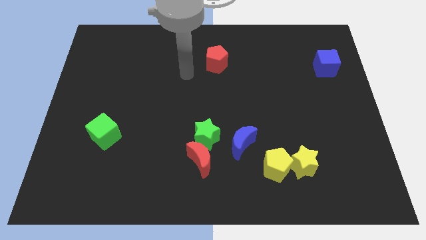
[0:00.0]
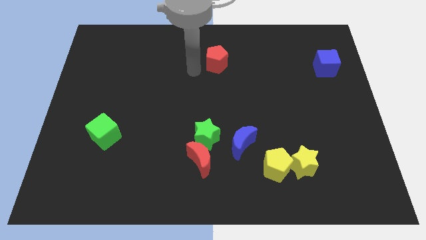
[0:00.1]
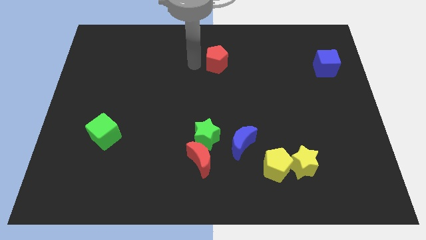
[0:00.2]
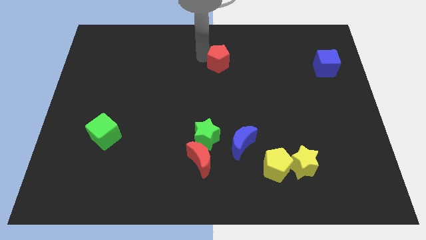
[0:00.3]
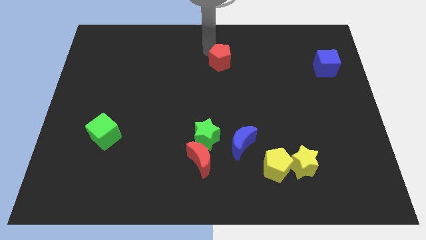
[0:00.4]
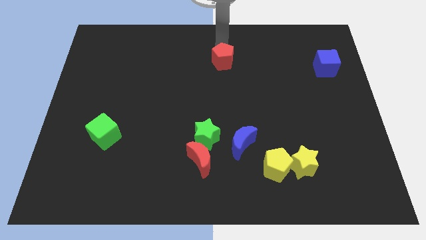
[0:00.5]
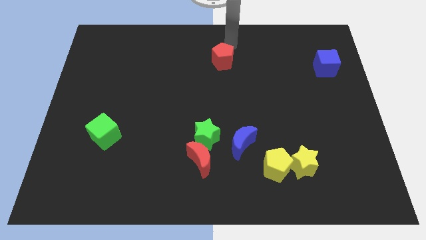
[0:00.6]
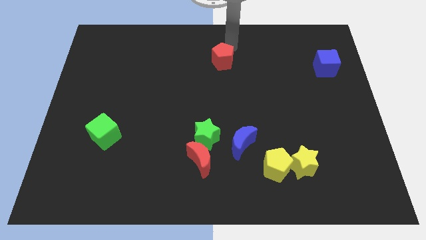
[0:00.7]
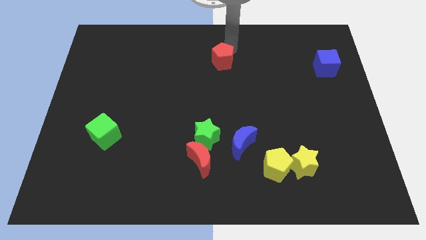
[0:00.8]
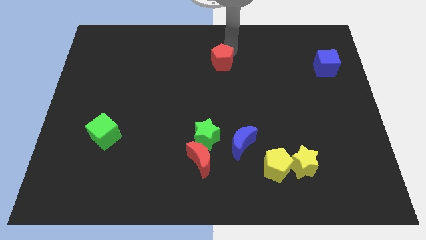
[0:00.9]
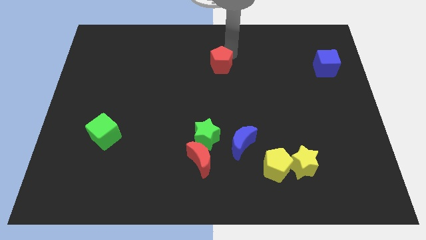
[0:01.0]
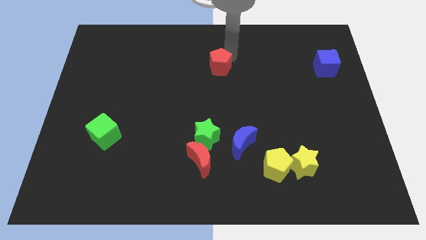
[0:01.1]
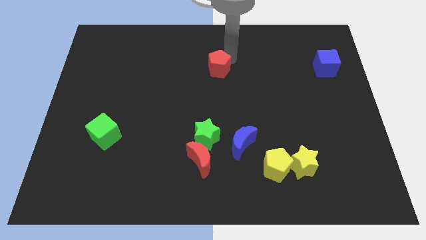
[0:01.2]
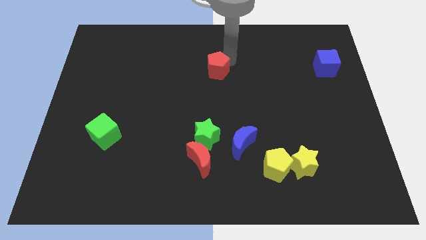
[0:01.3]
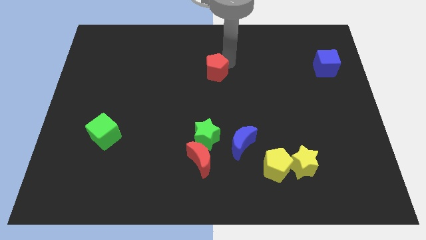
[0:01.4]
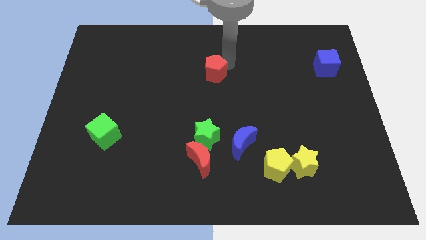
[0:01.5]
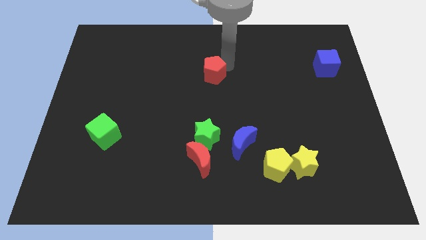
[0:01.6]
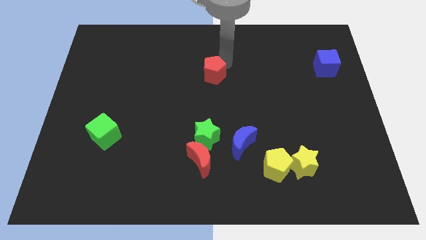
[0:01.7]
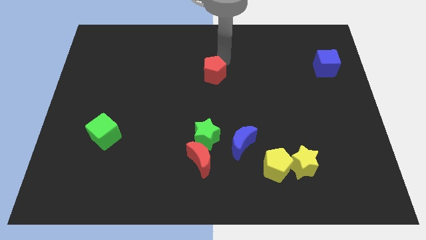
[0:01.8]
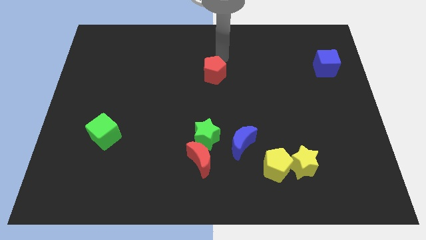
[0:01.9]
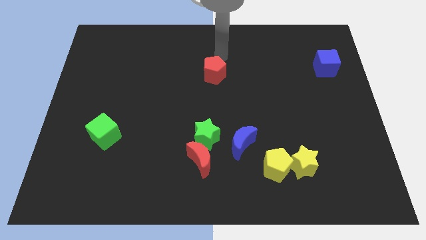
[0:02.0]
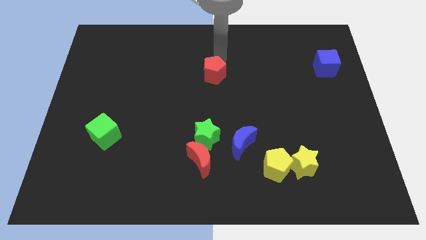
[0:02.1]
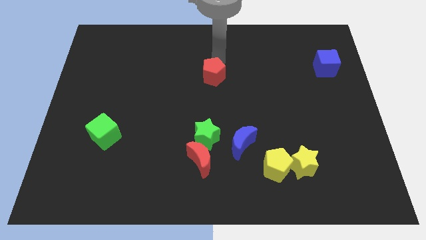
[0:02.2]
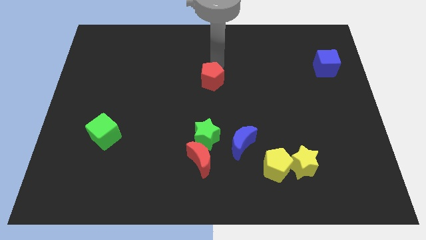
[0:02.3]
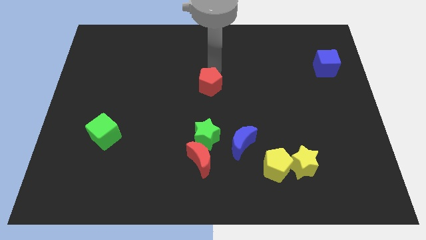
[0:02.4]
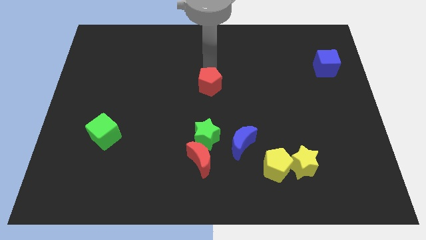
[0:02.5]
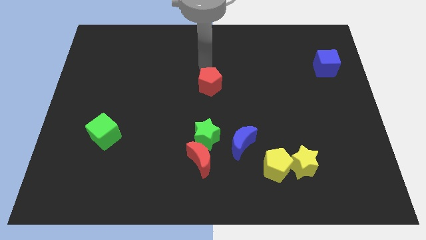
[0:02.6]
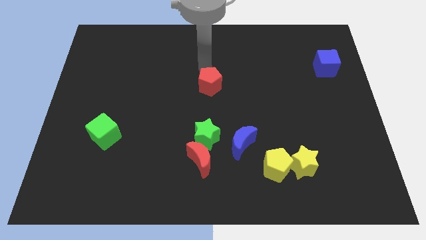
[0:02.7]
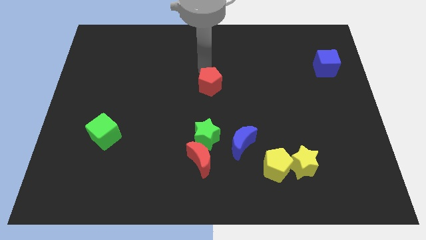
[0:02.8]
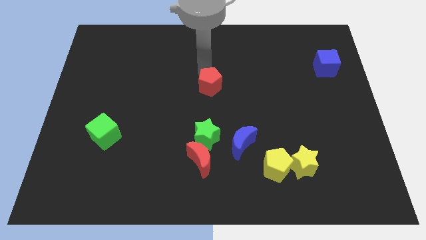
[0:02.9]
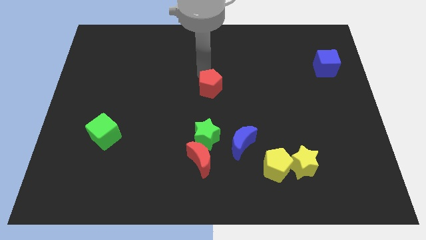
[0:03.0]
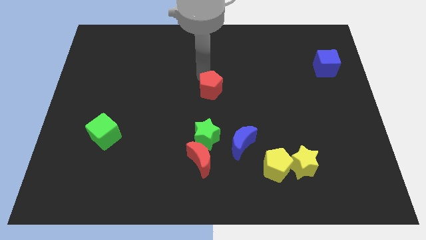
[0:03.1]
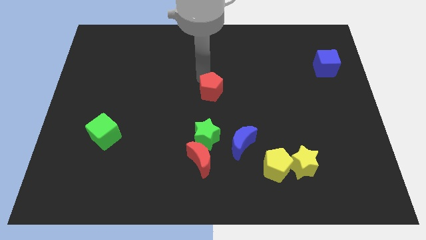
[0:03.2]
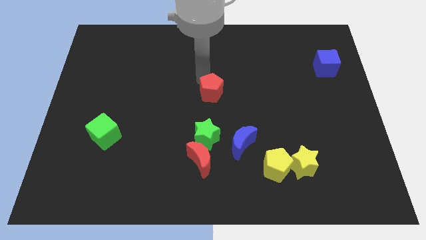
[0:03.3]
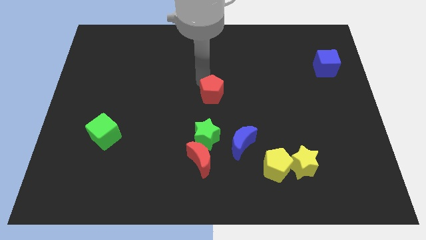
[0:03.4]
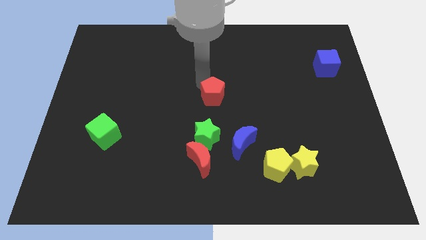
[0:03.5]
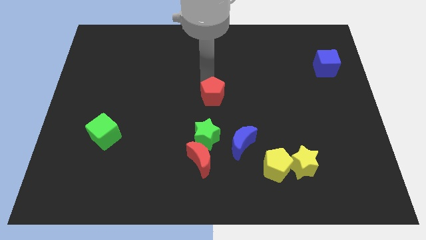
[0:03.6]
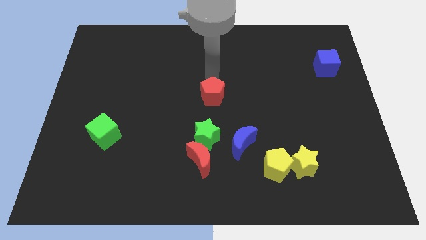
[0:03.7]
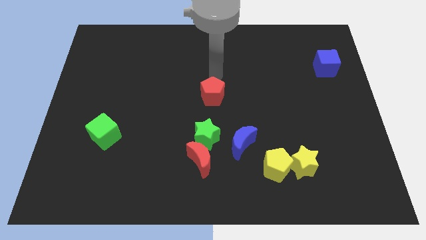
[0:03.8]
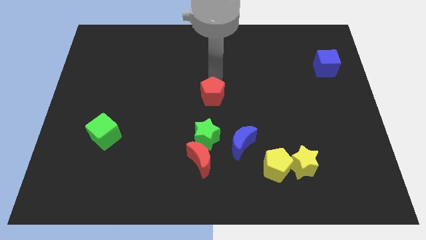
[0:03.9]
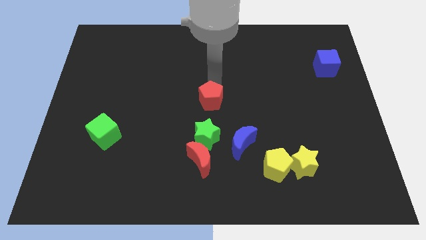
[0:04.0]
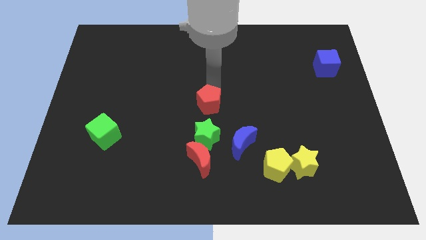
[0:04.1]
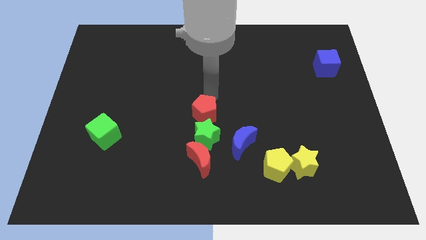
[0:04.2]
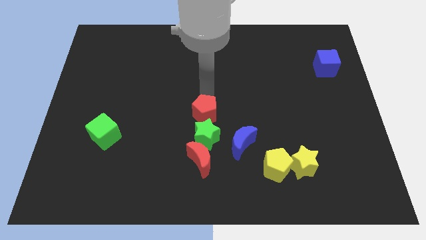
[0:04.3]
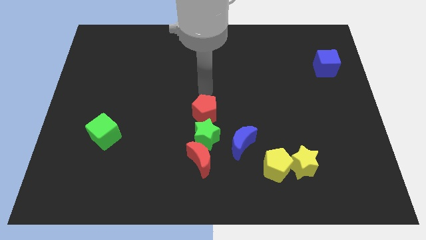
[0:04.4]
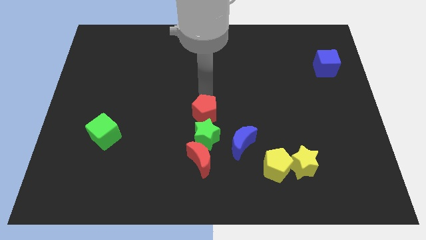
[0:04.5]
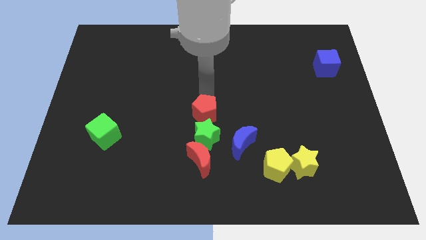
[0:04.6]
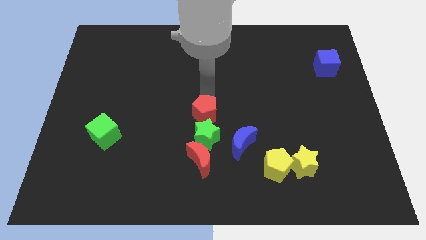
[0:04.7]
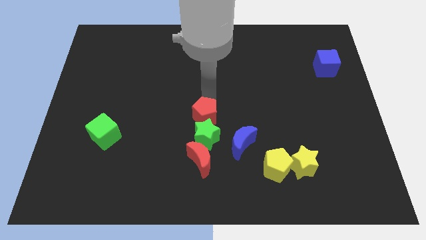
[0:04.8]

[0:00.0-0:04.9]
slide the red pentagon close to the green star

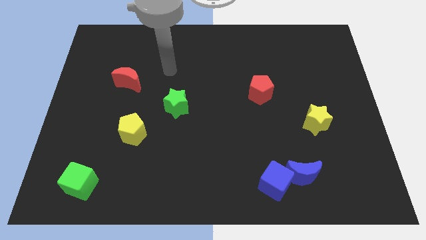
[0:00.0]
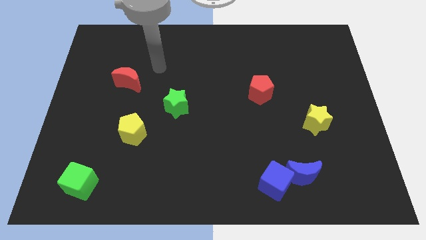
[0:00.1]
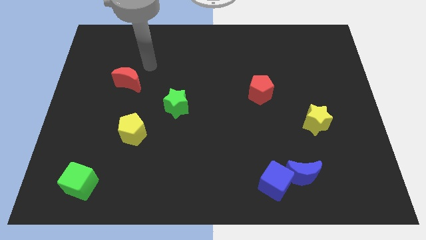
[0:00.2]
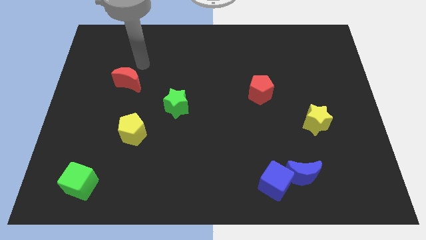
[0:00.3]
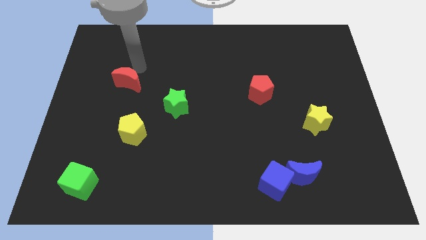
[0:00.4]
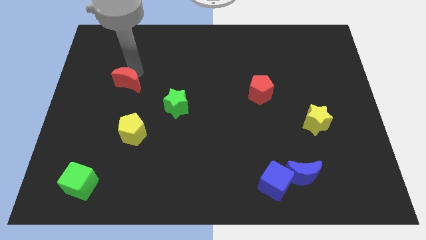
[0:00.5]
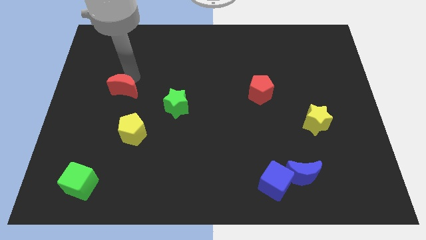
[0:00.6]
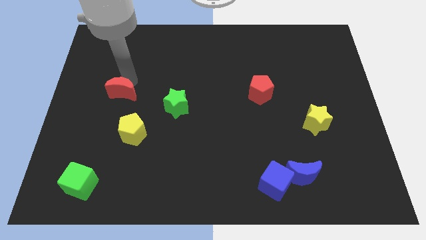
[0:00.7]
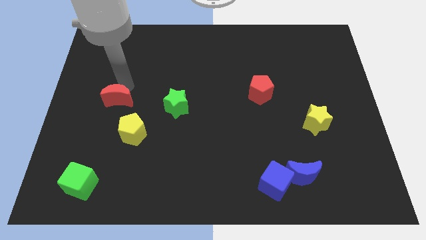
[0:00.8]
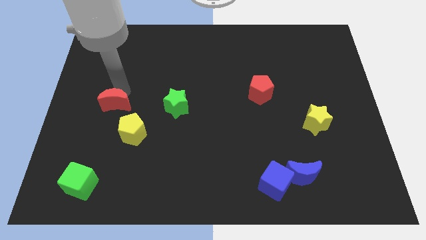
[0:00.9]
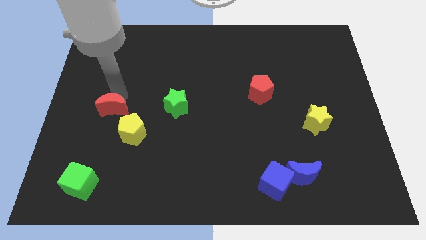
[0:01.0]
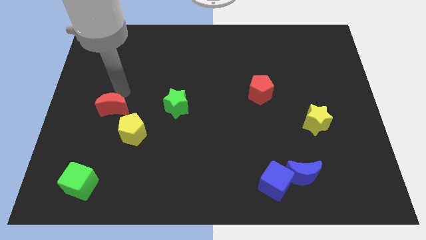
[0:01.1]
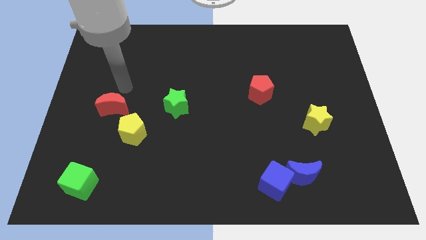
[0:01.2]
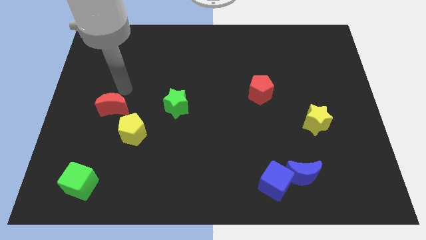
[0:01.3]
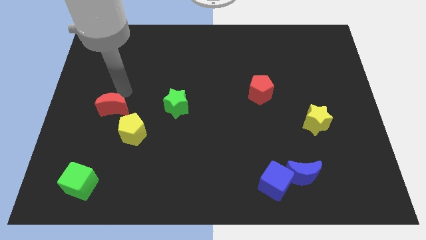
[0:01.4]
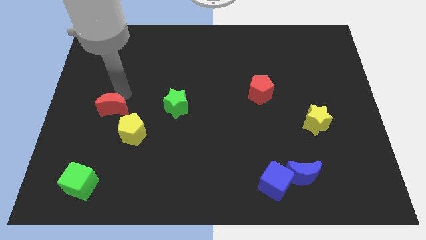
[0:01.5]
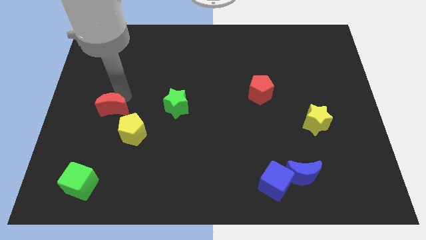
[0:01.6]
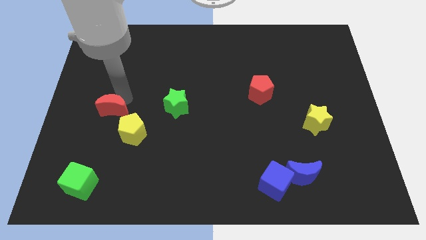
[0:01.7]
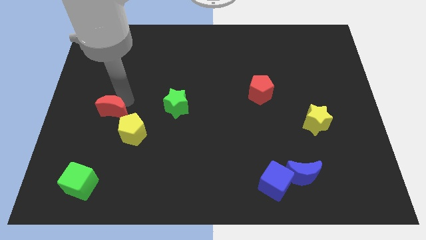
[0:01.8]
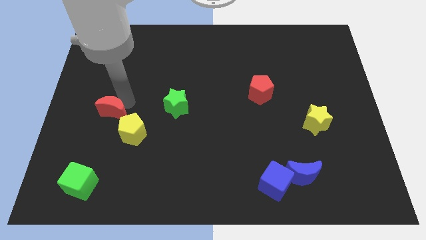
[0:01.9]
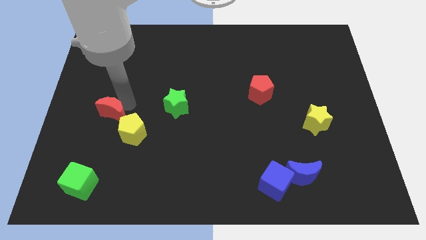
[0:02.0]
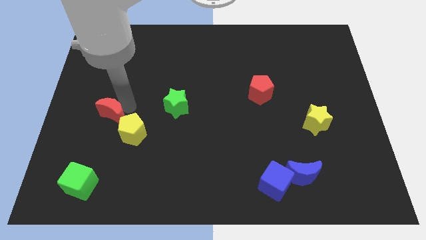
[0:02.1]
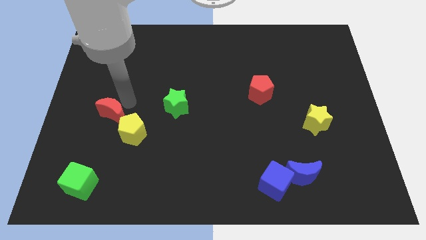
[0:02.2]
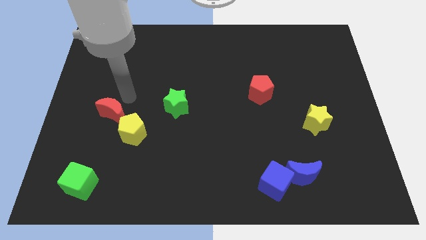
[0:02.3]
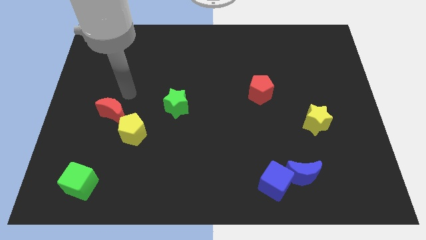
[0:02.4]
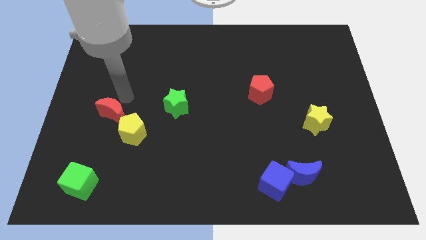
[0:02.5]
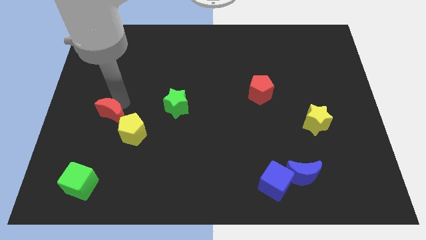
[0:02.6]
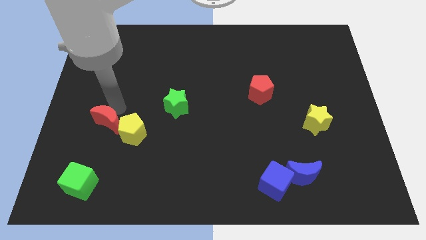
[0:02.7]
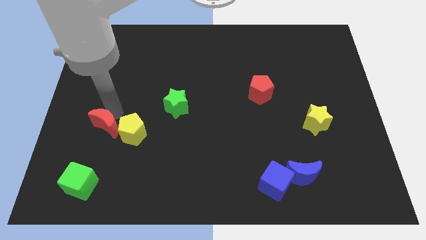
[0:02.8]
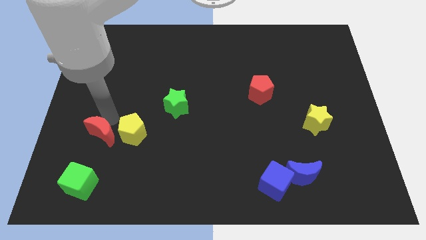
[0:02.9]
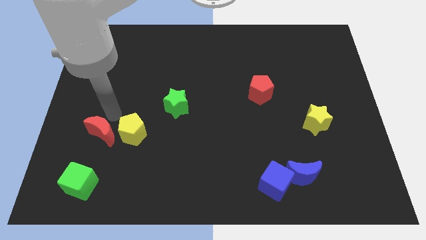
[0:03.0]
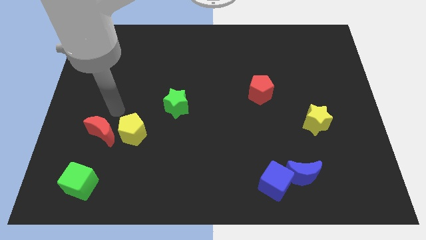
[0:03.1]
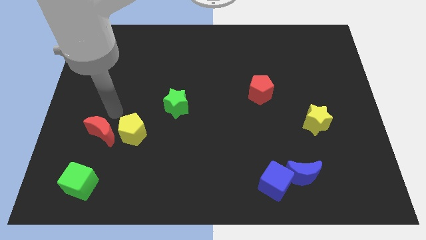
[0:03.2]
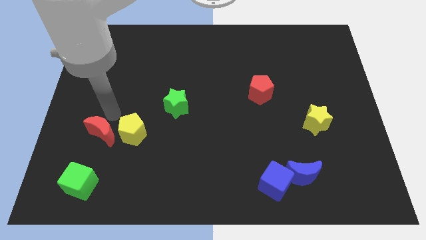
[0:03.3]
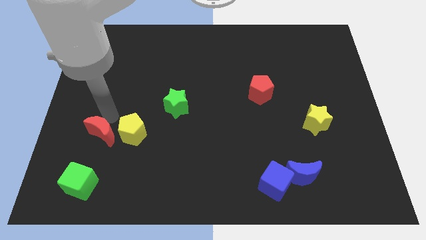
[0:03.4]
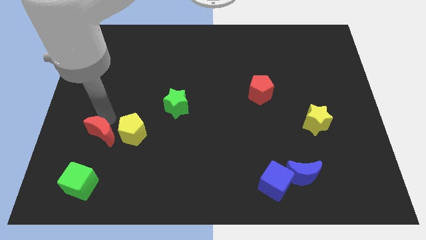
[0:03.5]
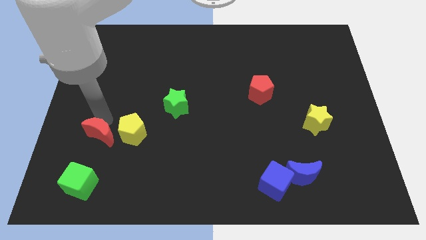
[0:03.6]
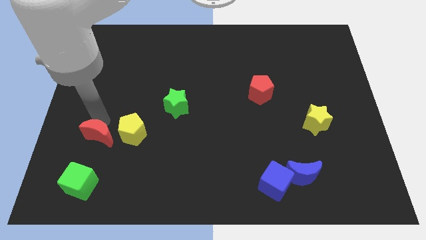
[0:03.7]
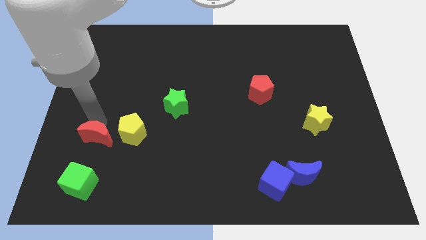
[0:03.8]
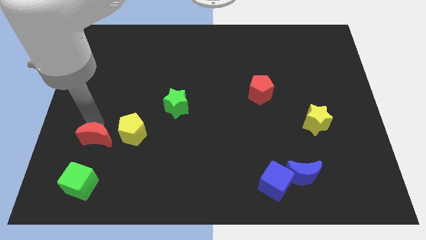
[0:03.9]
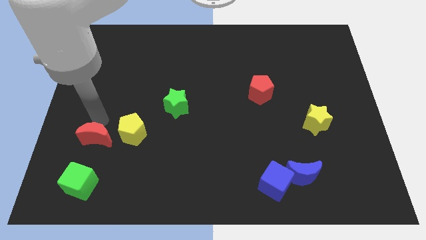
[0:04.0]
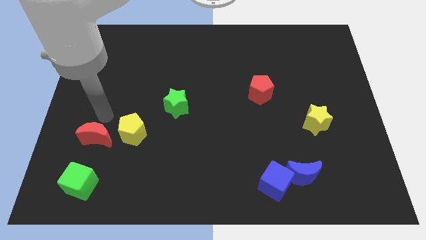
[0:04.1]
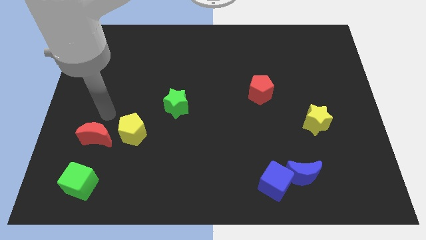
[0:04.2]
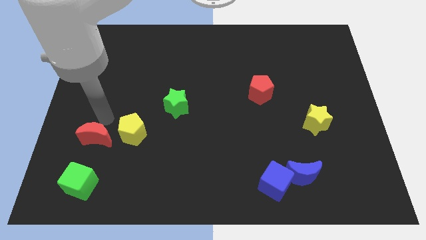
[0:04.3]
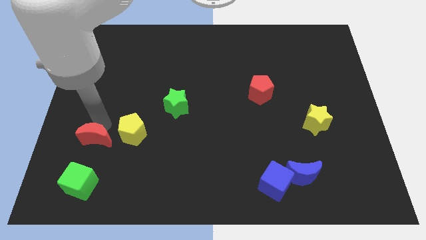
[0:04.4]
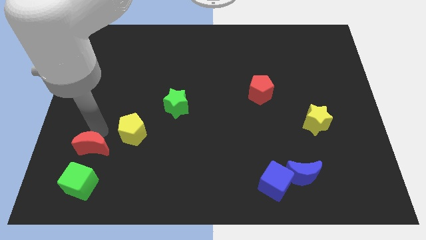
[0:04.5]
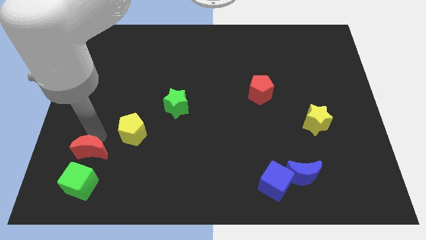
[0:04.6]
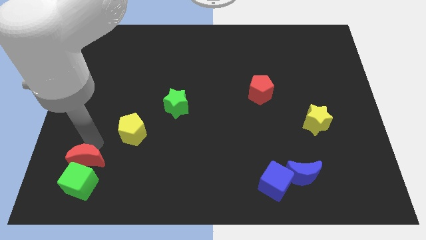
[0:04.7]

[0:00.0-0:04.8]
move the red moon next to the green cube
